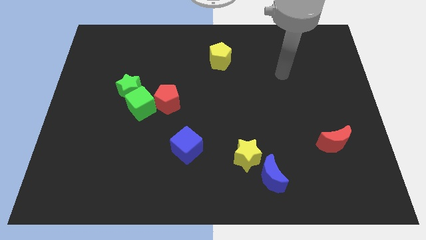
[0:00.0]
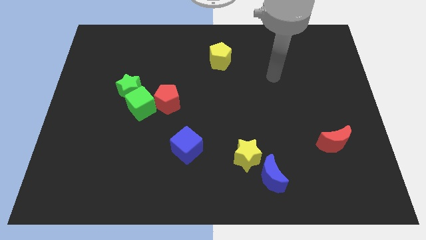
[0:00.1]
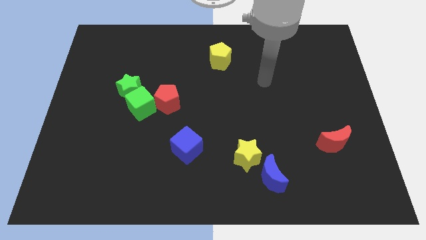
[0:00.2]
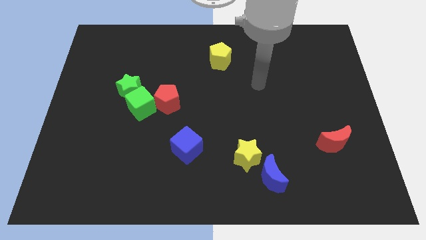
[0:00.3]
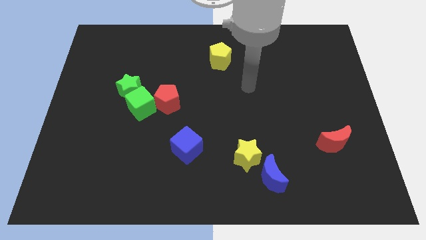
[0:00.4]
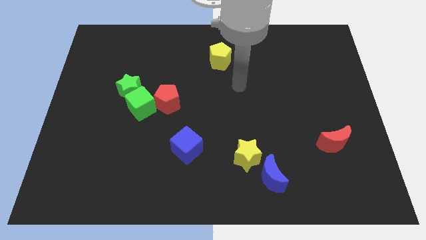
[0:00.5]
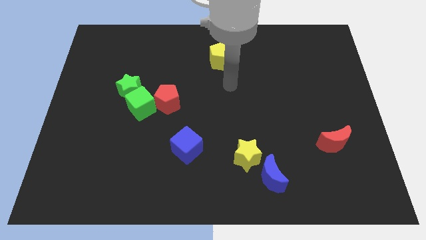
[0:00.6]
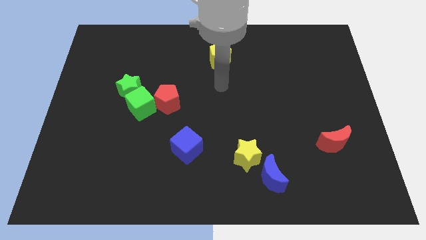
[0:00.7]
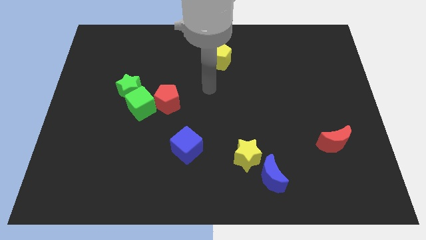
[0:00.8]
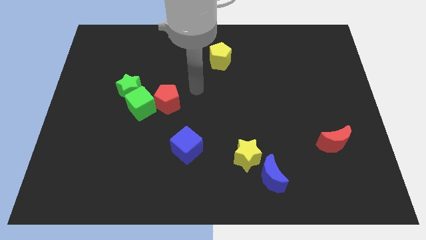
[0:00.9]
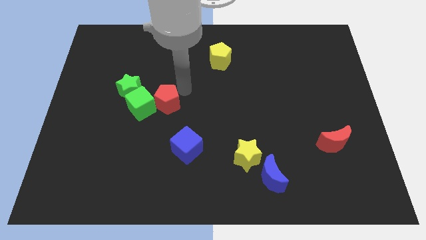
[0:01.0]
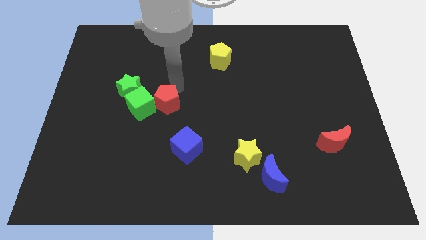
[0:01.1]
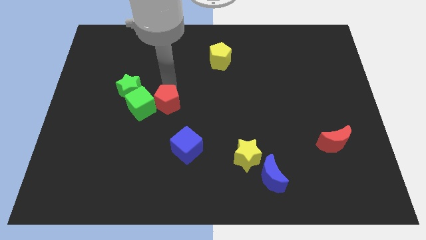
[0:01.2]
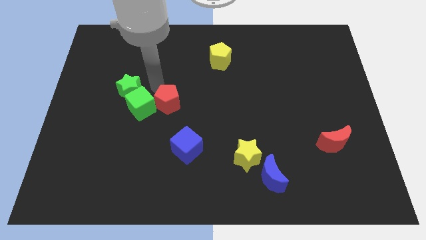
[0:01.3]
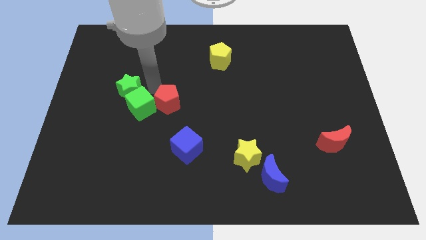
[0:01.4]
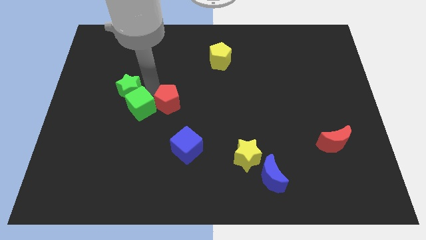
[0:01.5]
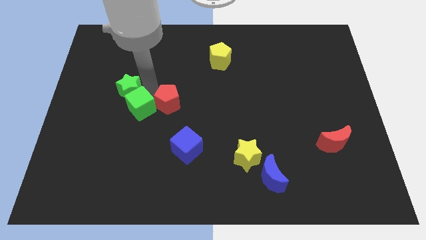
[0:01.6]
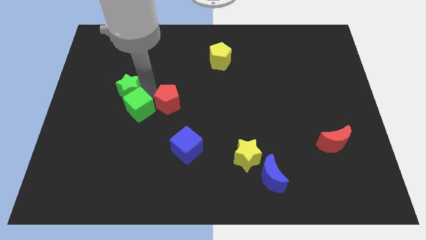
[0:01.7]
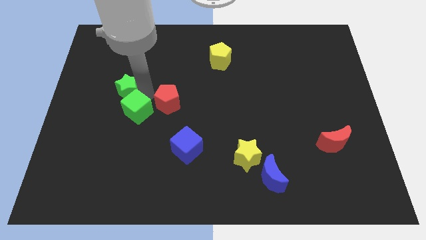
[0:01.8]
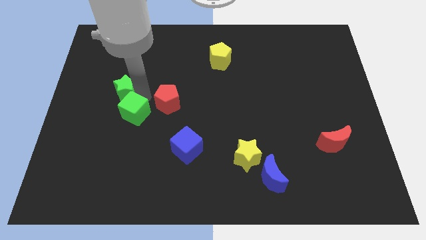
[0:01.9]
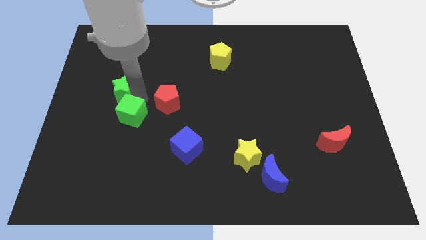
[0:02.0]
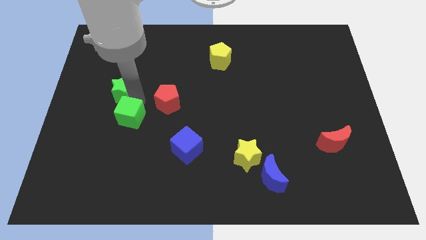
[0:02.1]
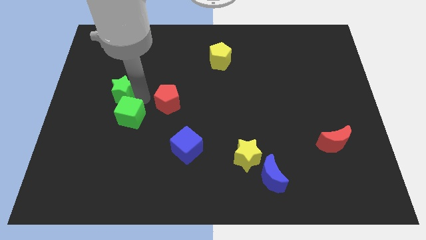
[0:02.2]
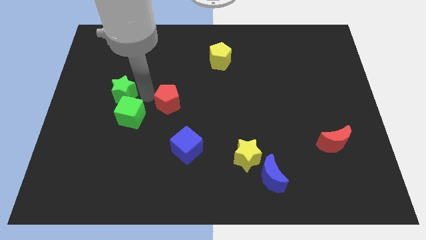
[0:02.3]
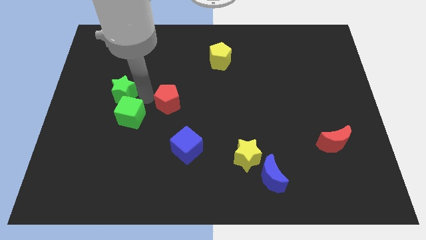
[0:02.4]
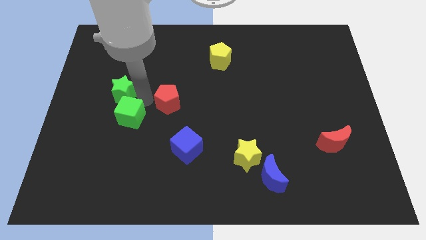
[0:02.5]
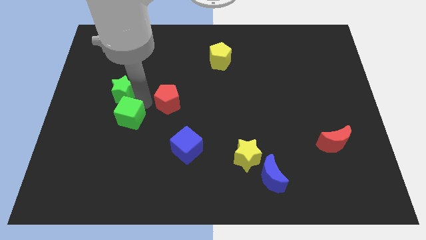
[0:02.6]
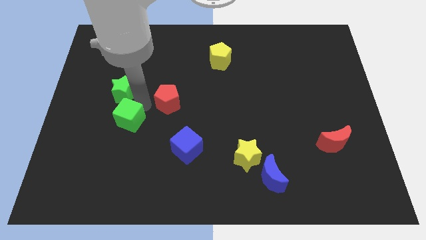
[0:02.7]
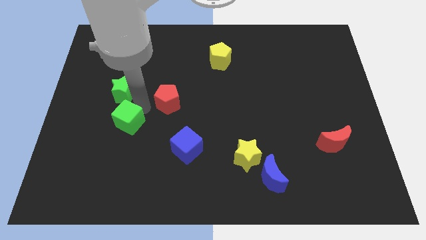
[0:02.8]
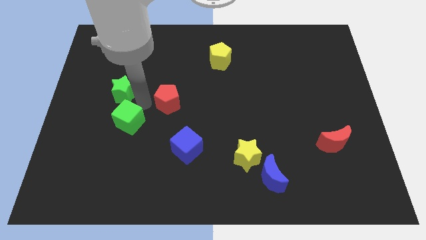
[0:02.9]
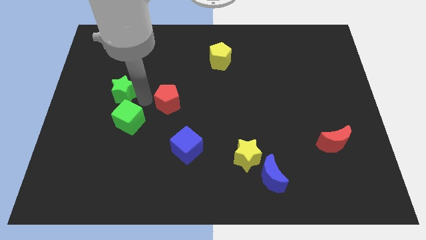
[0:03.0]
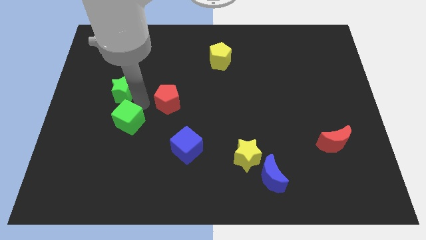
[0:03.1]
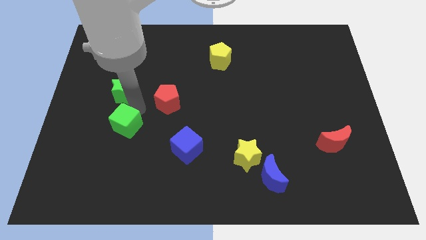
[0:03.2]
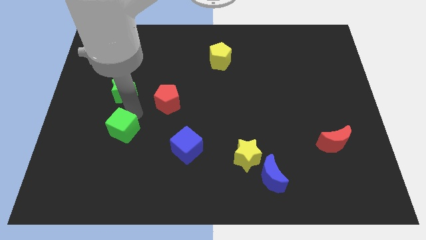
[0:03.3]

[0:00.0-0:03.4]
separate the green cube from the green star and red pentagon

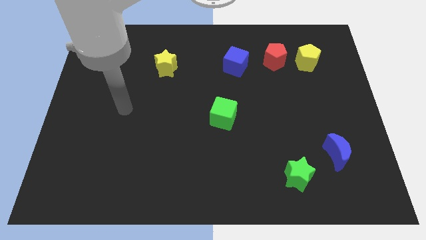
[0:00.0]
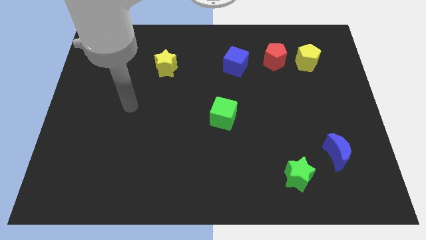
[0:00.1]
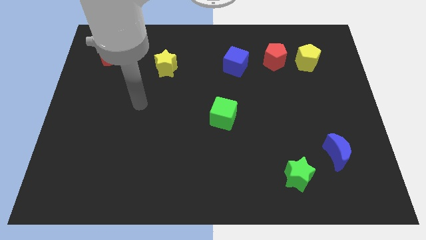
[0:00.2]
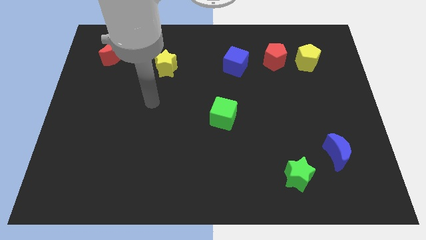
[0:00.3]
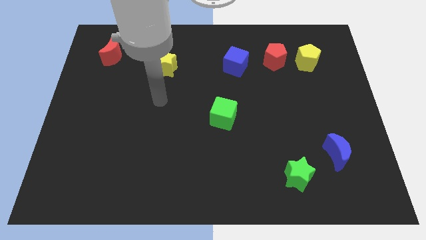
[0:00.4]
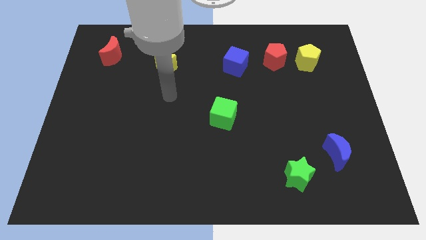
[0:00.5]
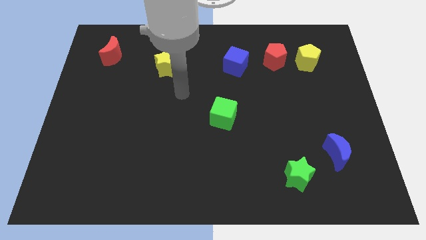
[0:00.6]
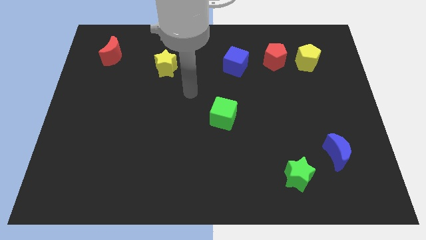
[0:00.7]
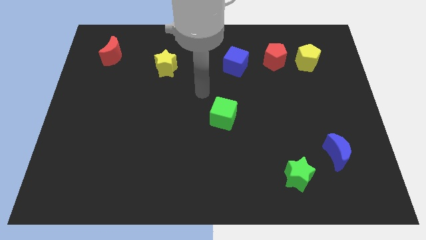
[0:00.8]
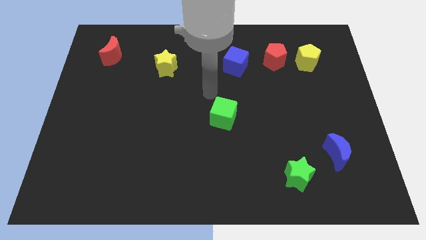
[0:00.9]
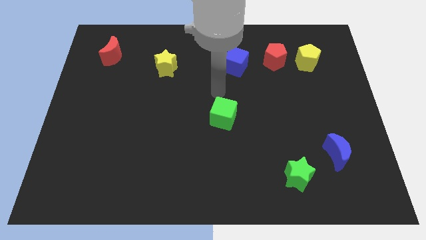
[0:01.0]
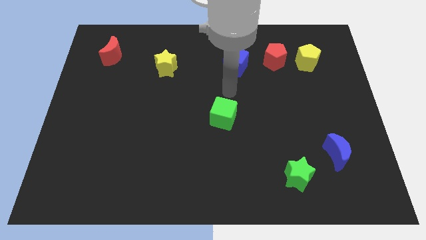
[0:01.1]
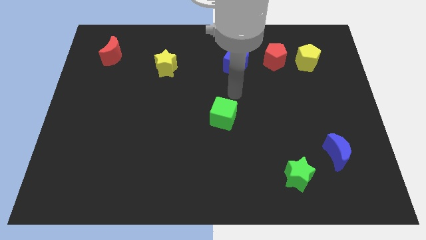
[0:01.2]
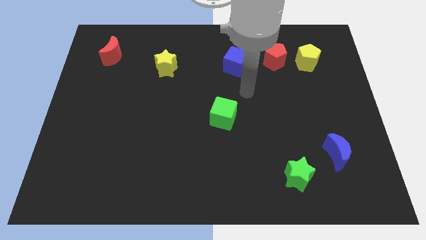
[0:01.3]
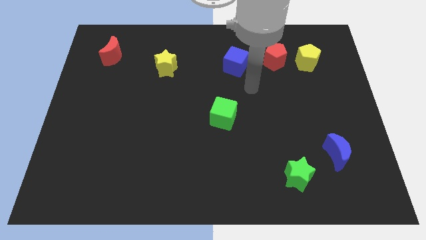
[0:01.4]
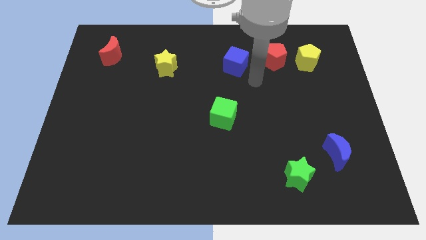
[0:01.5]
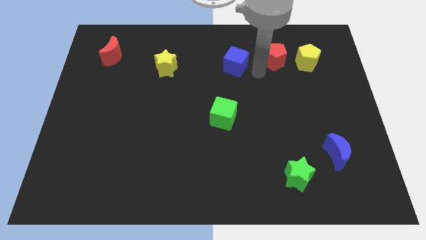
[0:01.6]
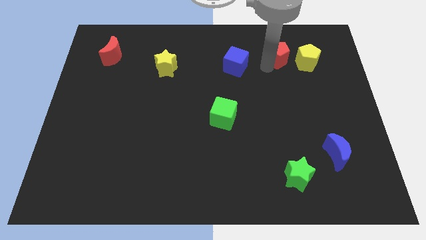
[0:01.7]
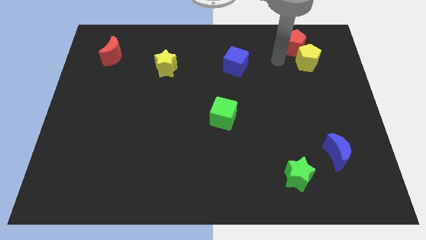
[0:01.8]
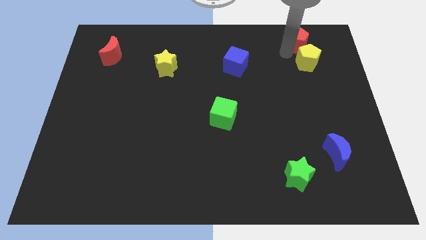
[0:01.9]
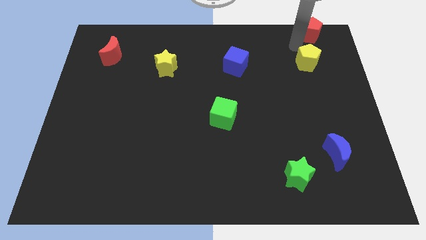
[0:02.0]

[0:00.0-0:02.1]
move the yellow pentagon away from the red pentagon

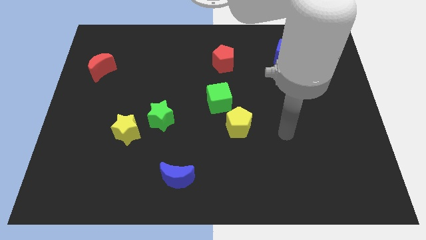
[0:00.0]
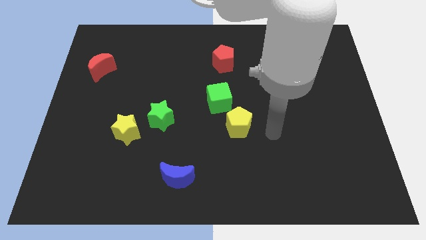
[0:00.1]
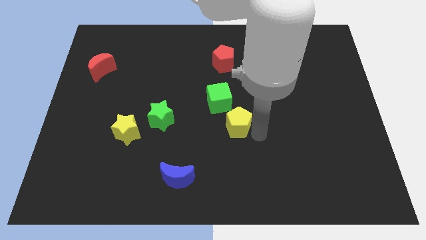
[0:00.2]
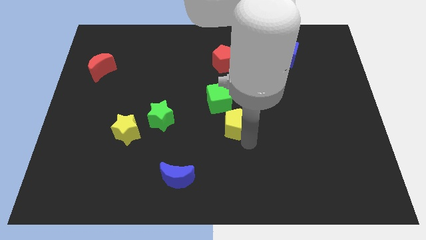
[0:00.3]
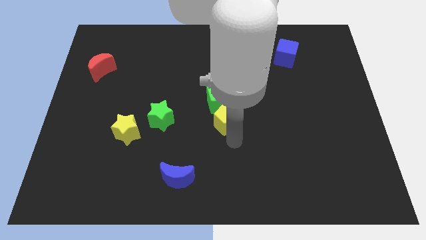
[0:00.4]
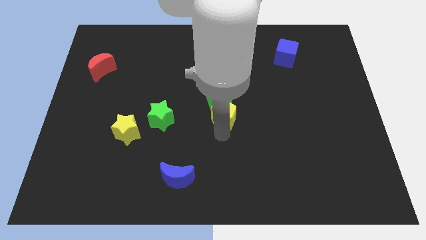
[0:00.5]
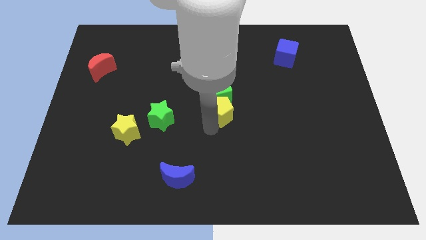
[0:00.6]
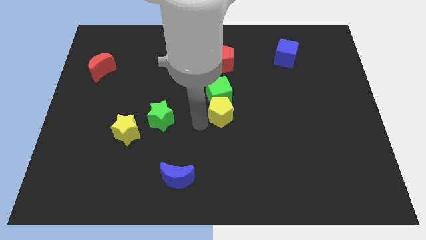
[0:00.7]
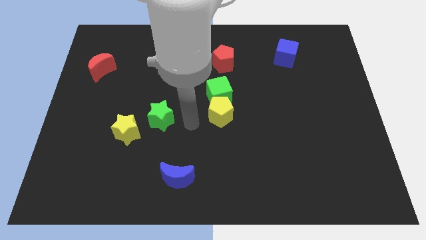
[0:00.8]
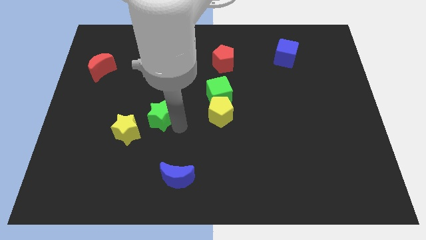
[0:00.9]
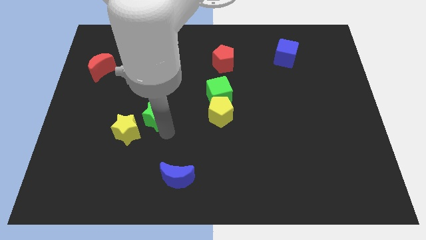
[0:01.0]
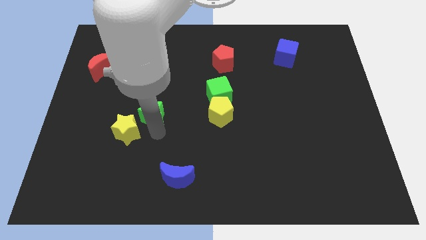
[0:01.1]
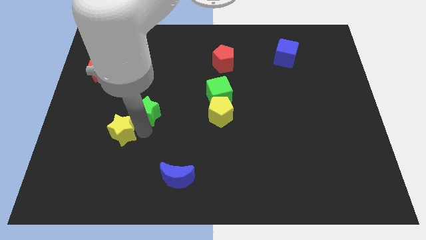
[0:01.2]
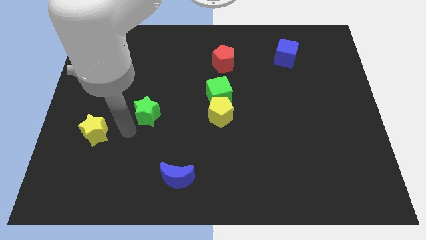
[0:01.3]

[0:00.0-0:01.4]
separate the green star from the yellow star

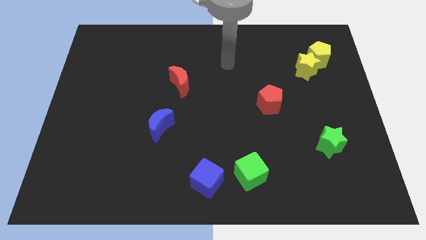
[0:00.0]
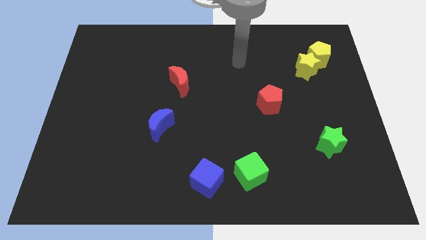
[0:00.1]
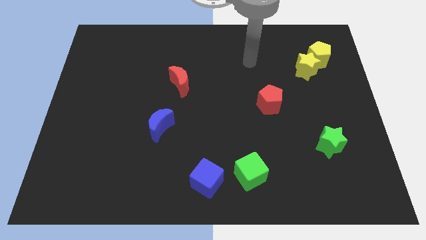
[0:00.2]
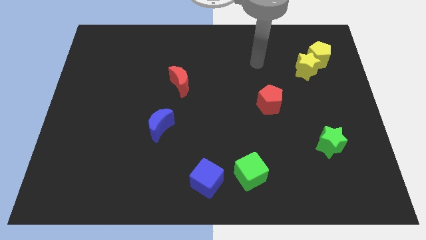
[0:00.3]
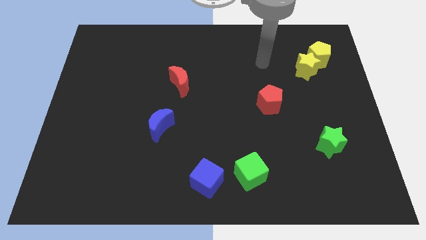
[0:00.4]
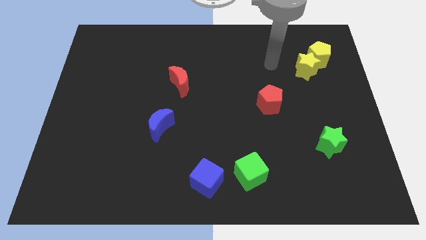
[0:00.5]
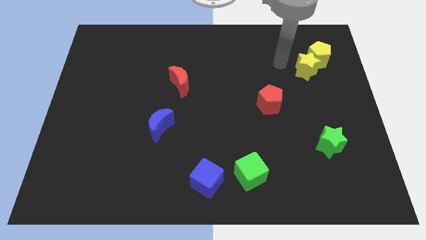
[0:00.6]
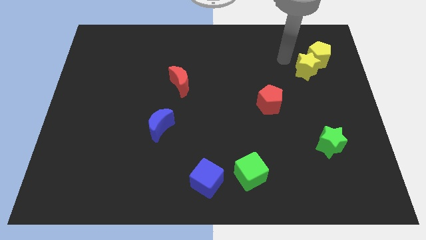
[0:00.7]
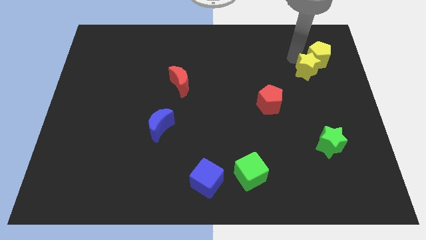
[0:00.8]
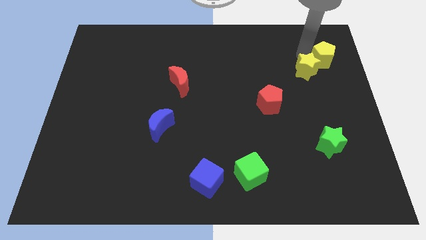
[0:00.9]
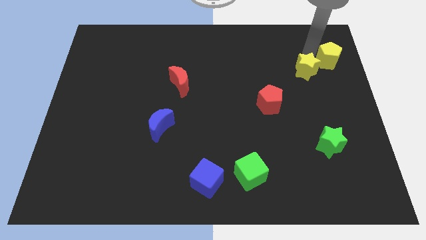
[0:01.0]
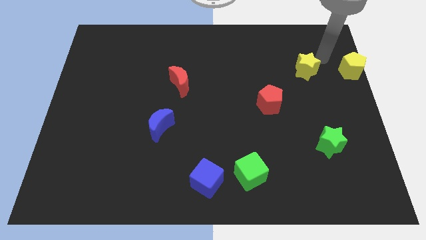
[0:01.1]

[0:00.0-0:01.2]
pull the yellow star apart from the yellow pentagon

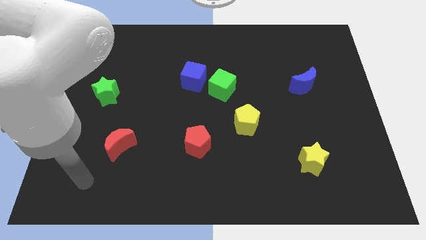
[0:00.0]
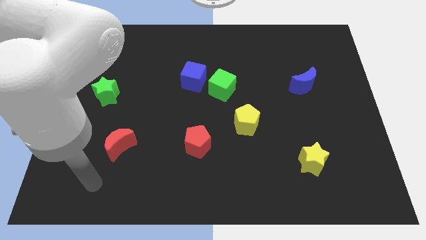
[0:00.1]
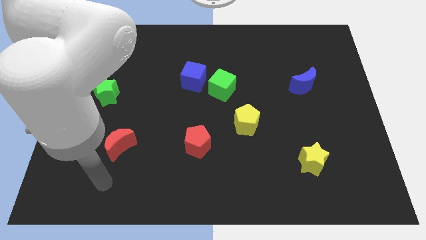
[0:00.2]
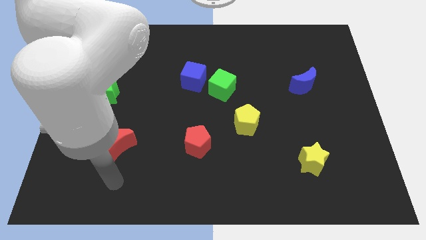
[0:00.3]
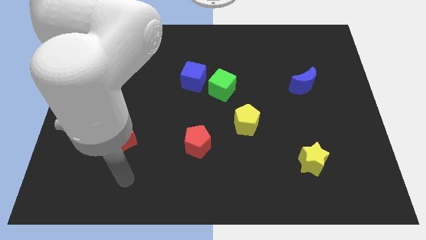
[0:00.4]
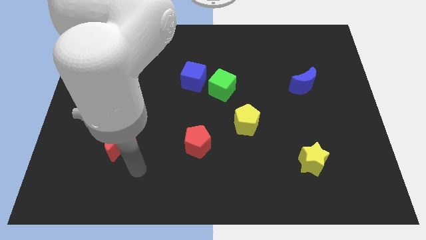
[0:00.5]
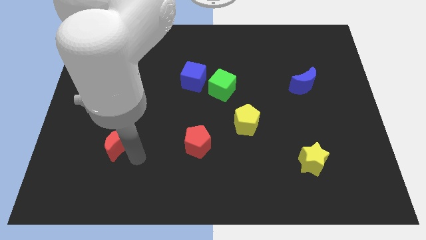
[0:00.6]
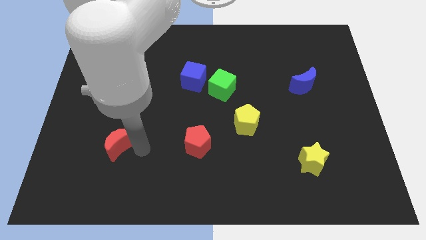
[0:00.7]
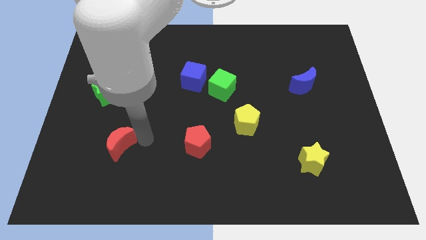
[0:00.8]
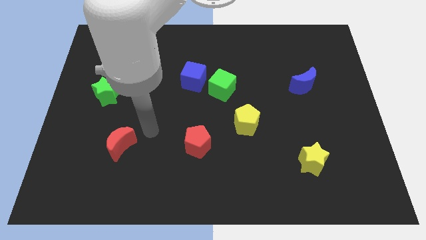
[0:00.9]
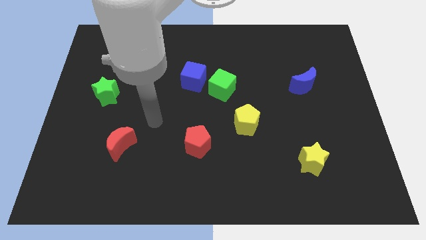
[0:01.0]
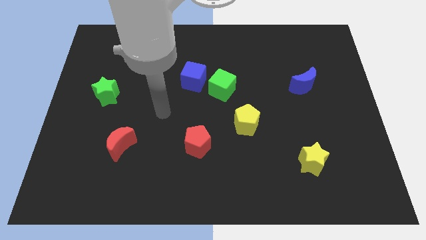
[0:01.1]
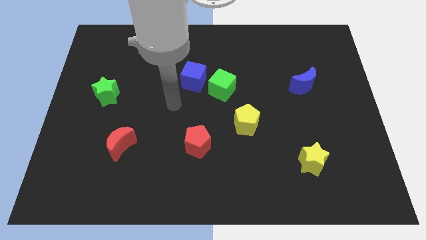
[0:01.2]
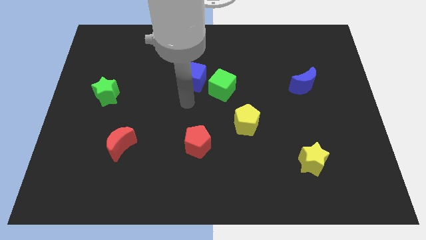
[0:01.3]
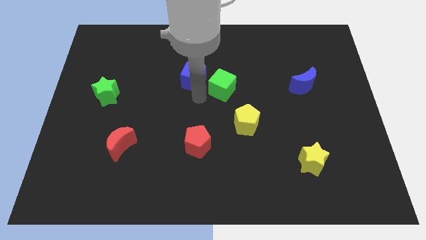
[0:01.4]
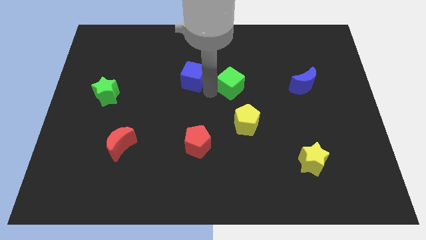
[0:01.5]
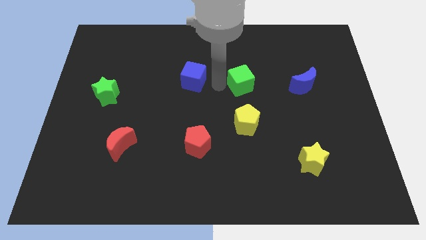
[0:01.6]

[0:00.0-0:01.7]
pull the blue cube apart from the green cube
